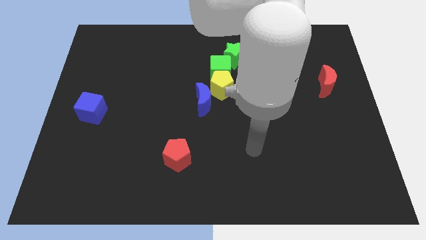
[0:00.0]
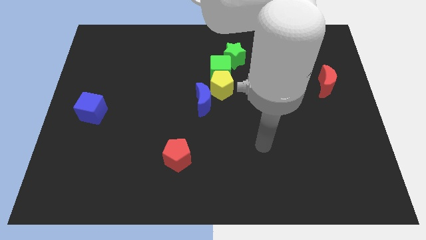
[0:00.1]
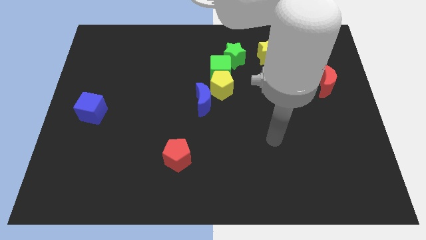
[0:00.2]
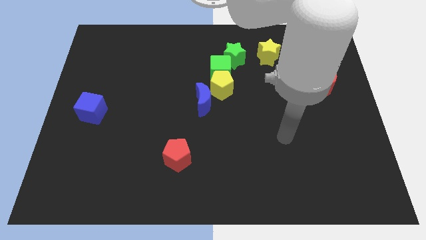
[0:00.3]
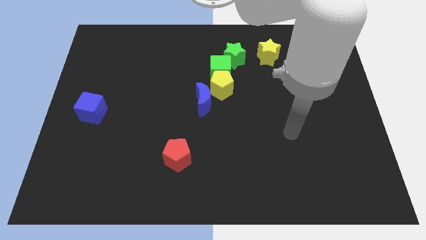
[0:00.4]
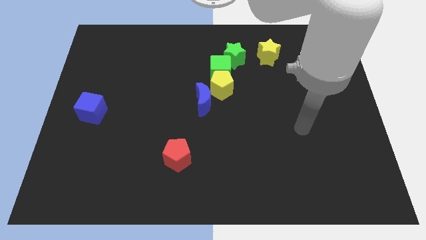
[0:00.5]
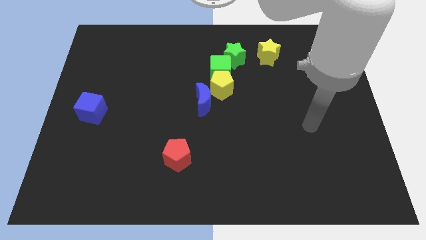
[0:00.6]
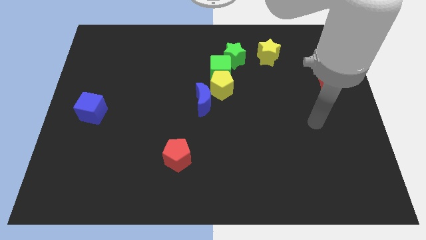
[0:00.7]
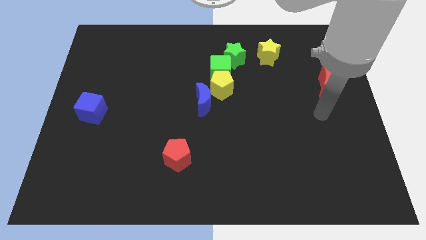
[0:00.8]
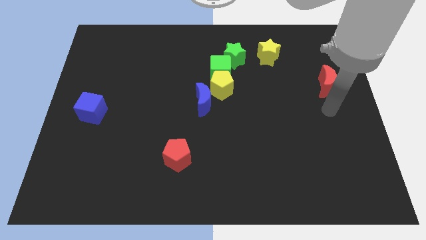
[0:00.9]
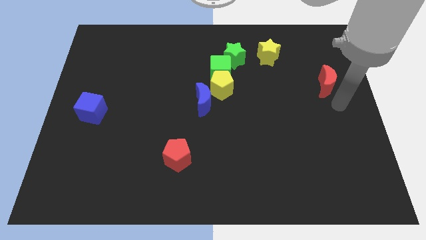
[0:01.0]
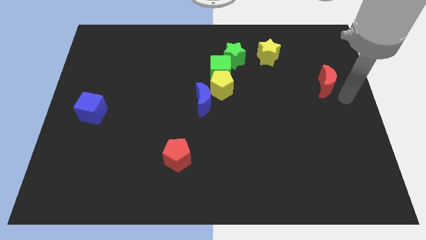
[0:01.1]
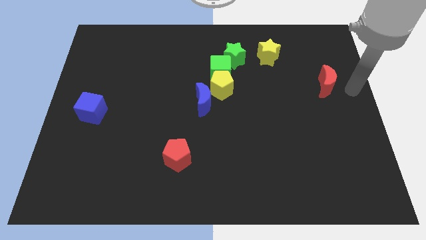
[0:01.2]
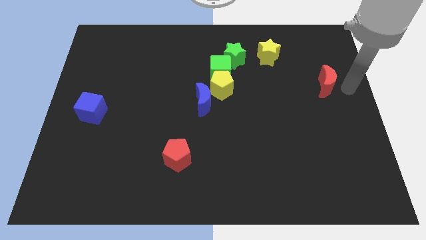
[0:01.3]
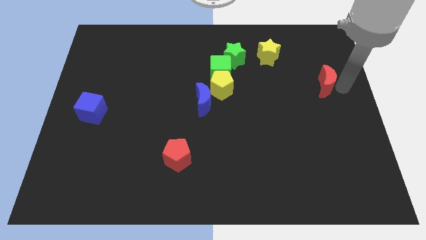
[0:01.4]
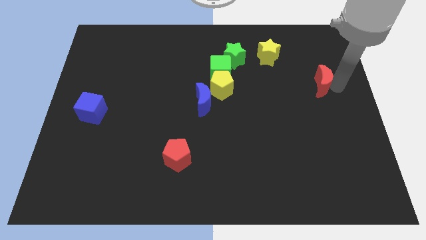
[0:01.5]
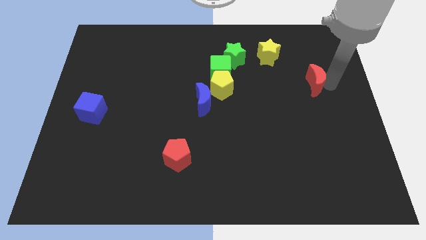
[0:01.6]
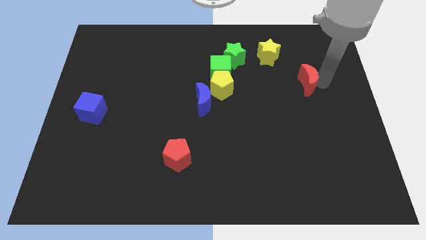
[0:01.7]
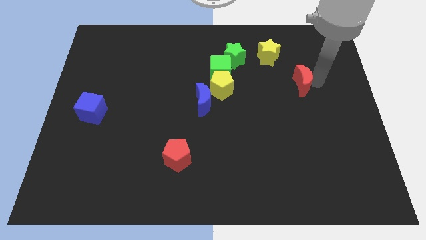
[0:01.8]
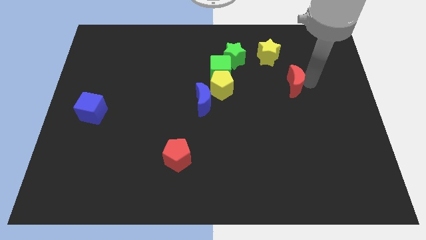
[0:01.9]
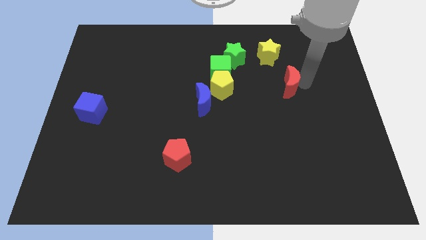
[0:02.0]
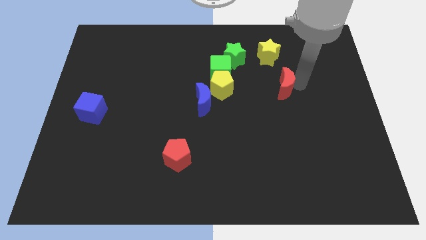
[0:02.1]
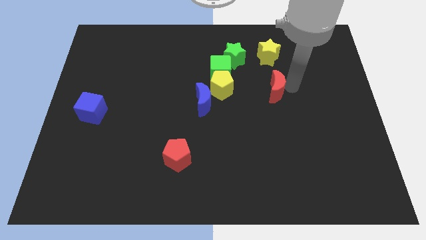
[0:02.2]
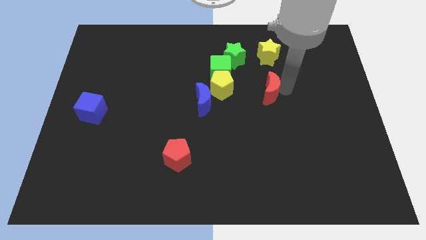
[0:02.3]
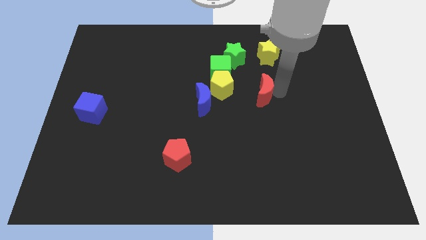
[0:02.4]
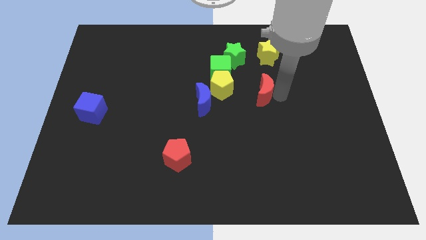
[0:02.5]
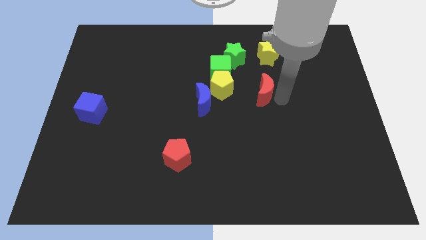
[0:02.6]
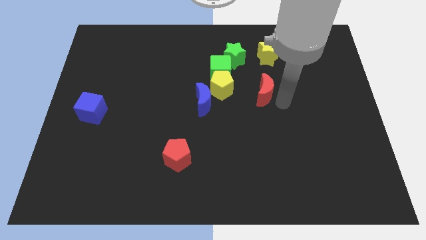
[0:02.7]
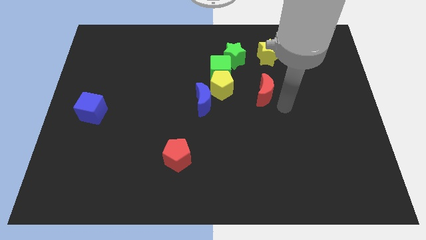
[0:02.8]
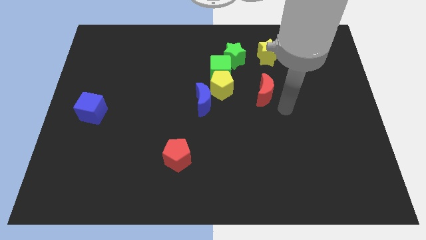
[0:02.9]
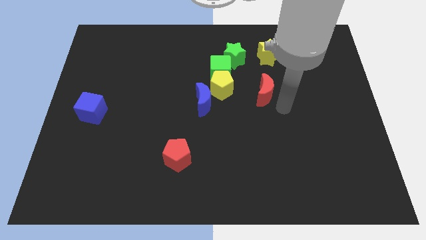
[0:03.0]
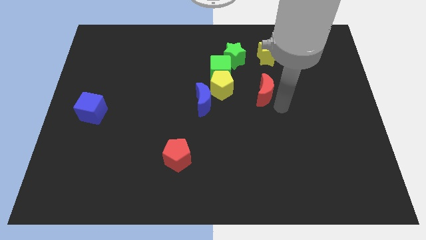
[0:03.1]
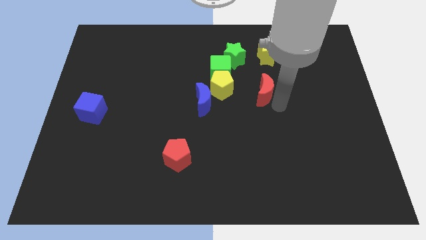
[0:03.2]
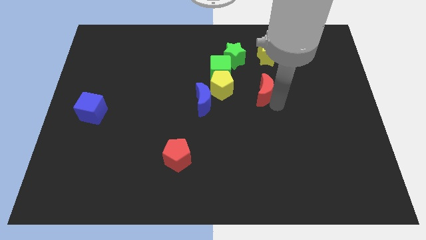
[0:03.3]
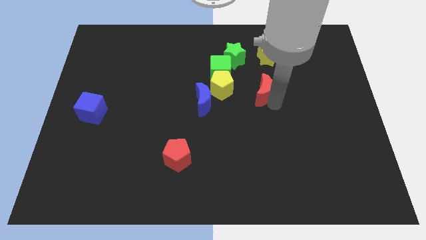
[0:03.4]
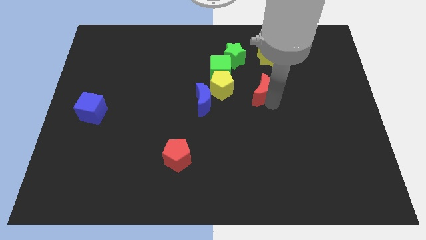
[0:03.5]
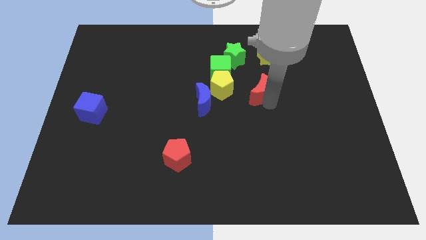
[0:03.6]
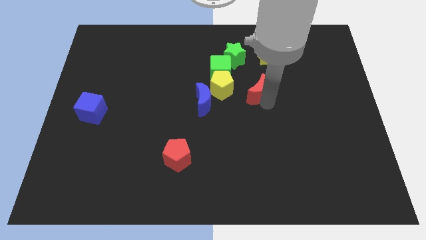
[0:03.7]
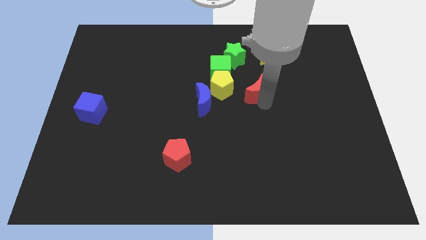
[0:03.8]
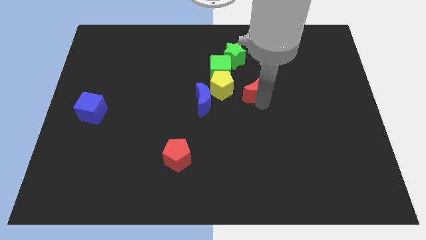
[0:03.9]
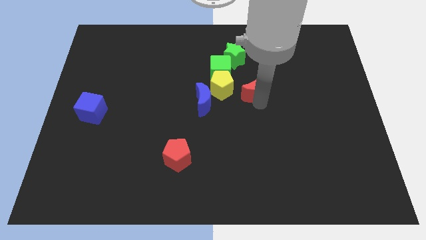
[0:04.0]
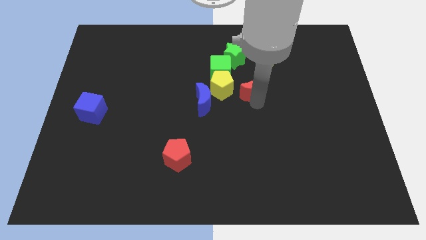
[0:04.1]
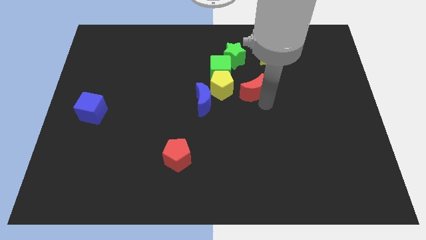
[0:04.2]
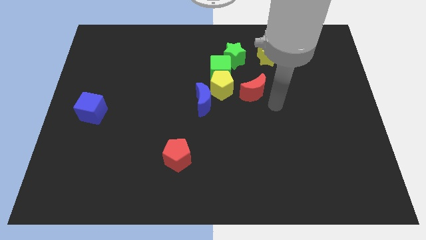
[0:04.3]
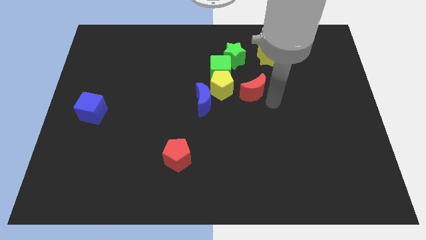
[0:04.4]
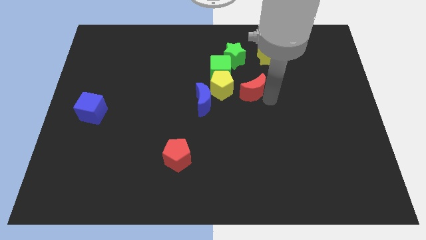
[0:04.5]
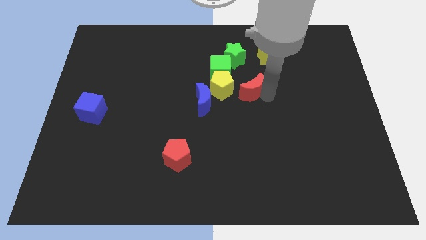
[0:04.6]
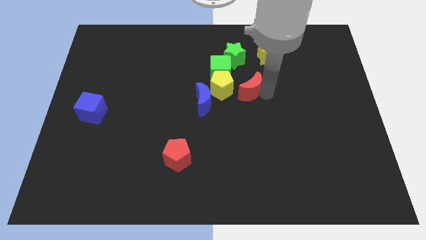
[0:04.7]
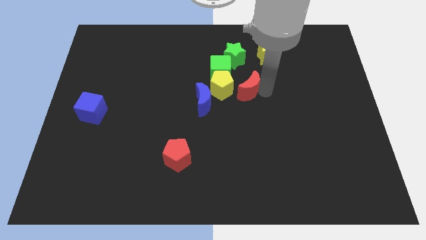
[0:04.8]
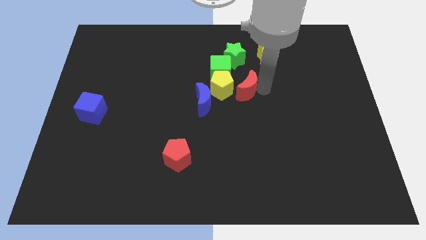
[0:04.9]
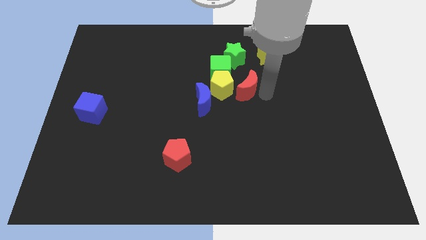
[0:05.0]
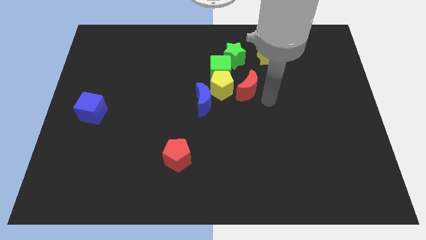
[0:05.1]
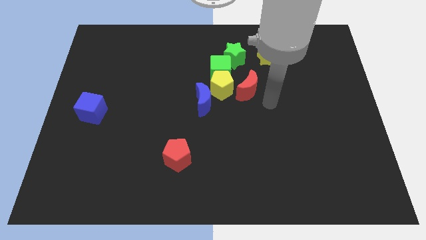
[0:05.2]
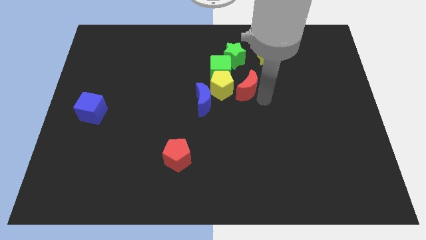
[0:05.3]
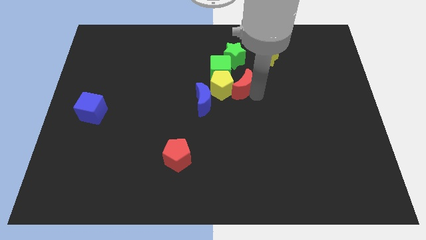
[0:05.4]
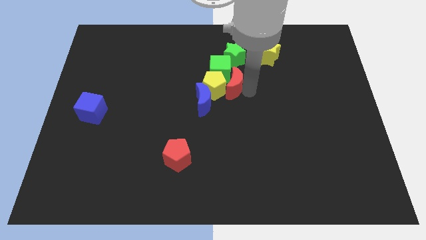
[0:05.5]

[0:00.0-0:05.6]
slide the red moon towards the green cube
